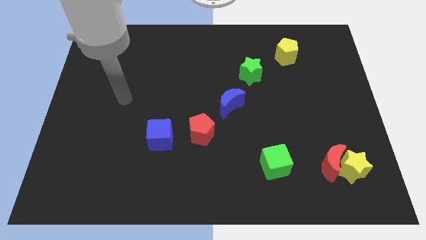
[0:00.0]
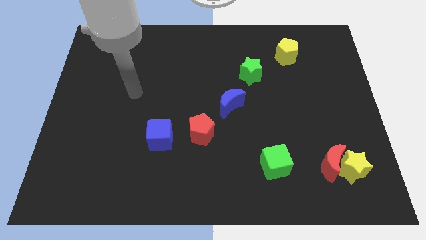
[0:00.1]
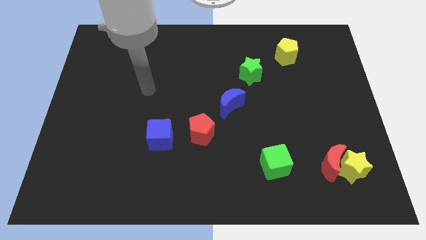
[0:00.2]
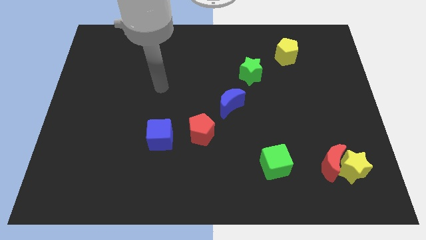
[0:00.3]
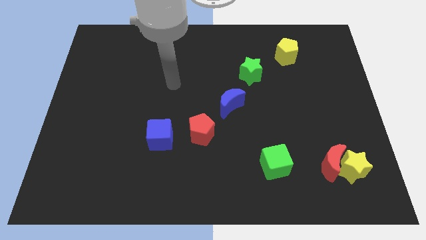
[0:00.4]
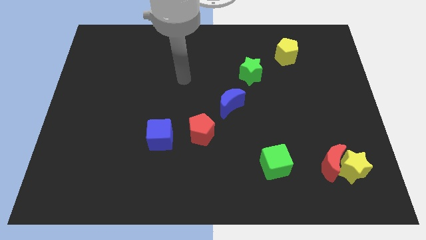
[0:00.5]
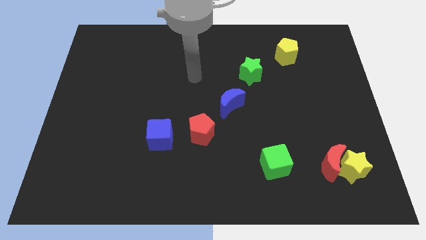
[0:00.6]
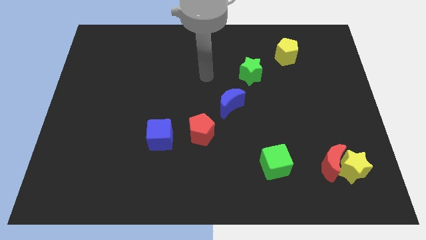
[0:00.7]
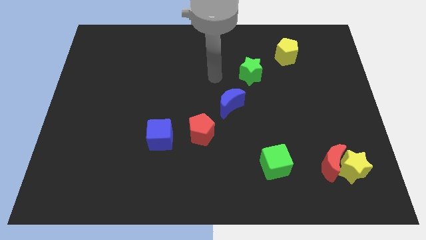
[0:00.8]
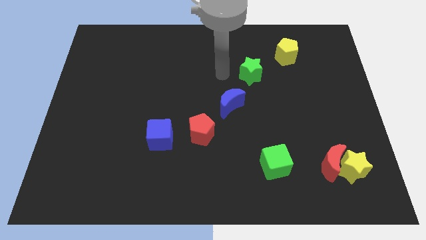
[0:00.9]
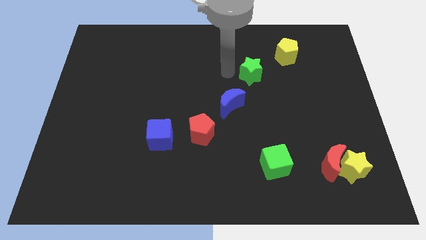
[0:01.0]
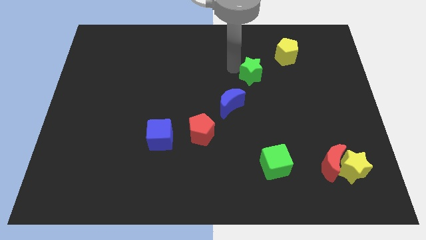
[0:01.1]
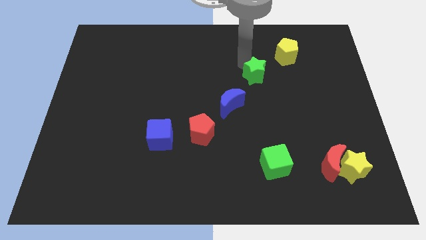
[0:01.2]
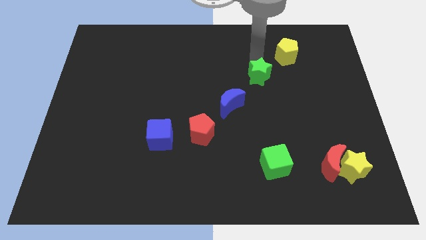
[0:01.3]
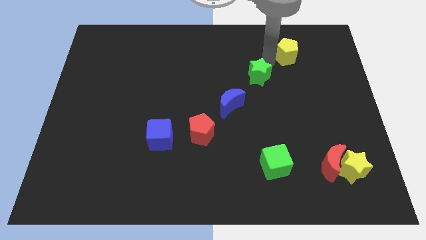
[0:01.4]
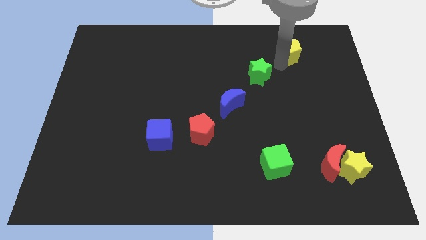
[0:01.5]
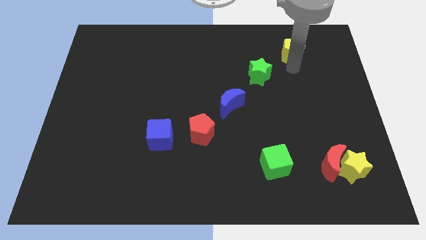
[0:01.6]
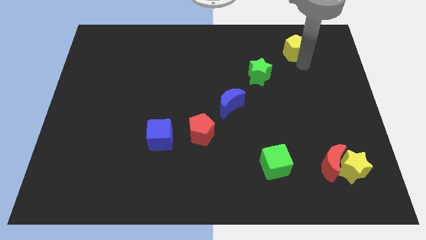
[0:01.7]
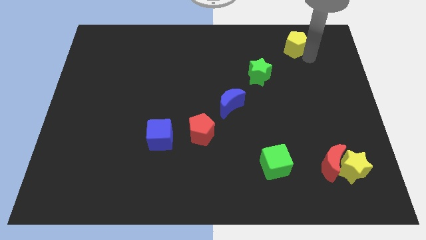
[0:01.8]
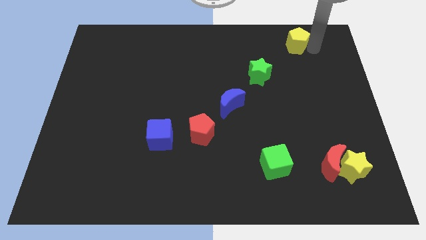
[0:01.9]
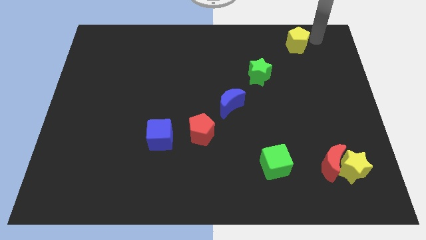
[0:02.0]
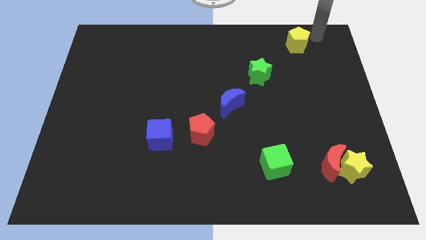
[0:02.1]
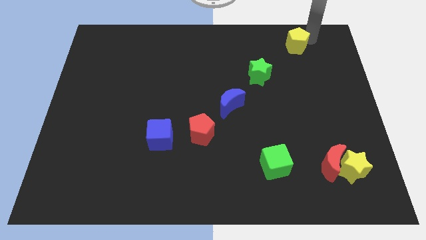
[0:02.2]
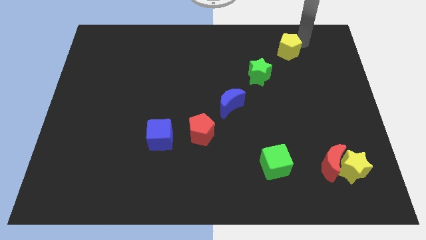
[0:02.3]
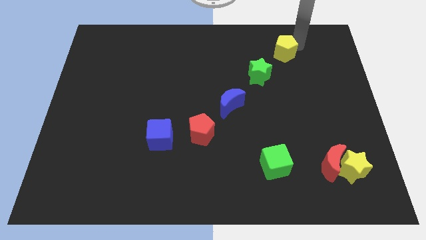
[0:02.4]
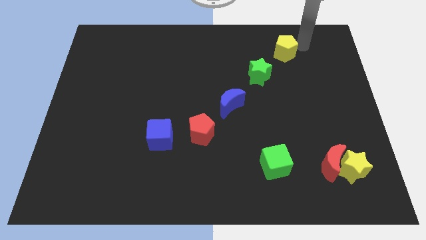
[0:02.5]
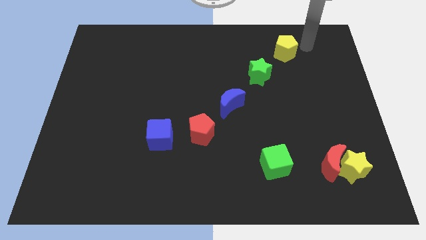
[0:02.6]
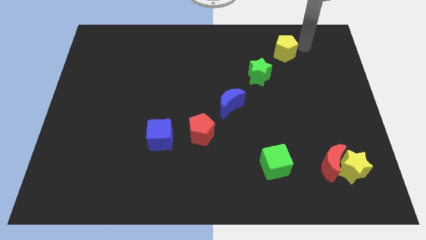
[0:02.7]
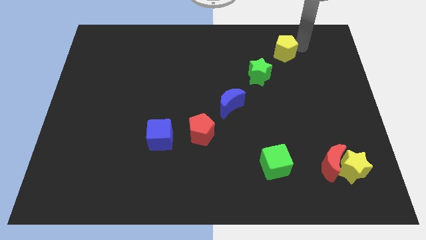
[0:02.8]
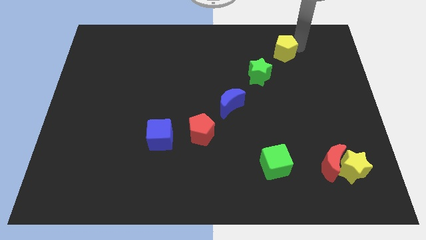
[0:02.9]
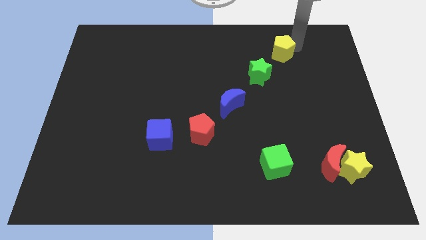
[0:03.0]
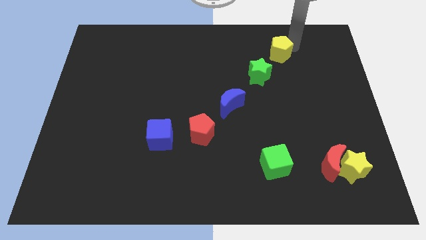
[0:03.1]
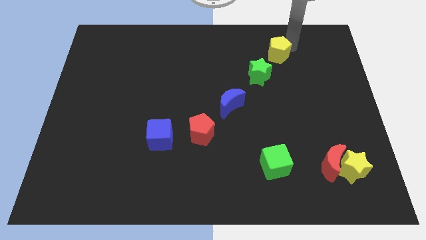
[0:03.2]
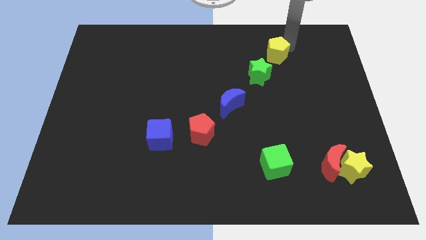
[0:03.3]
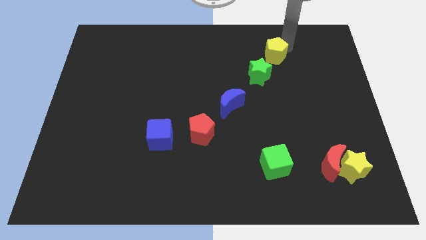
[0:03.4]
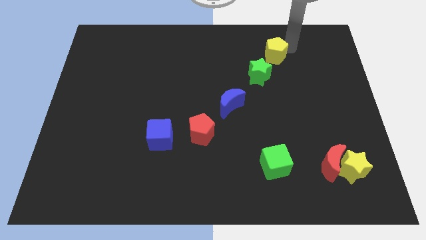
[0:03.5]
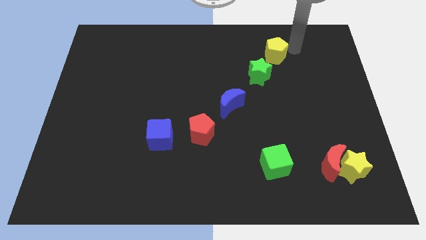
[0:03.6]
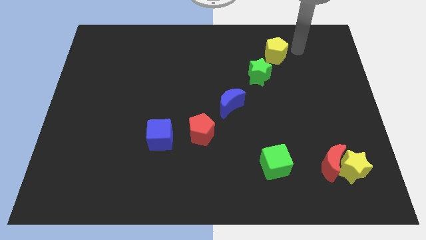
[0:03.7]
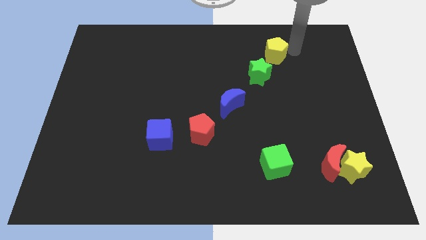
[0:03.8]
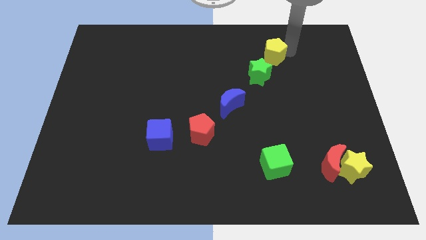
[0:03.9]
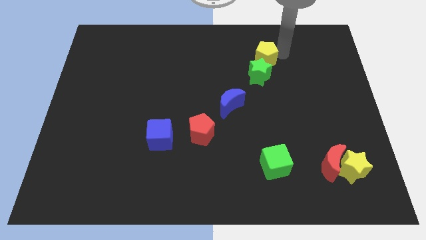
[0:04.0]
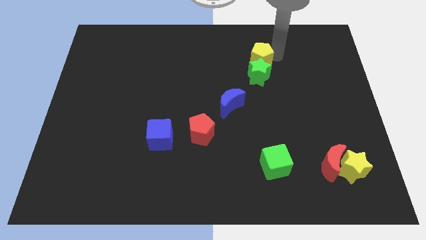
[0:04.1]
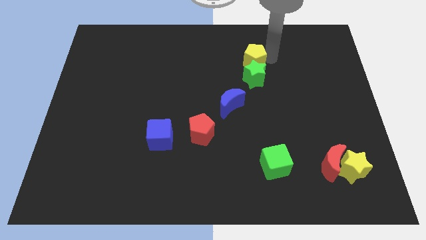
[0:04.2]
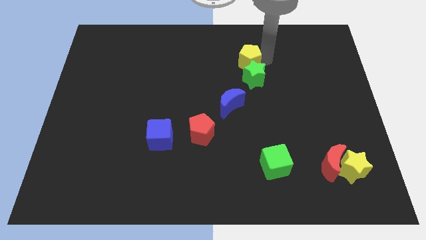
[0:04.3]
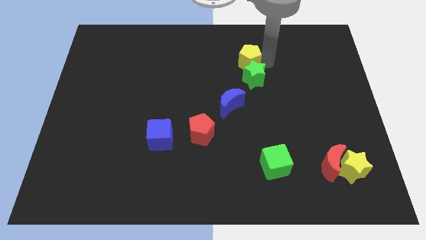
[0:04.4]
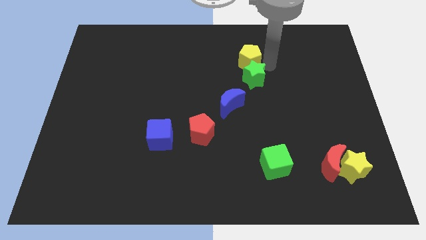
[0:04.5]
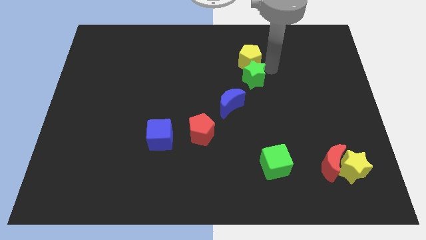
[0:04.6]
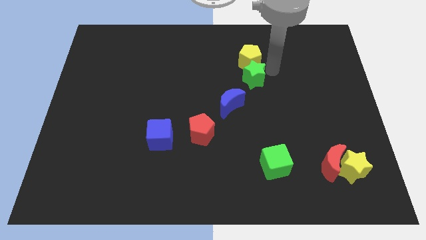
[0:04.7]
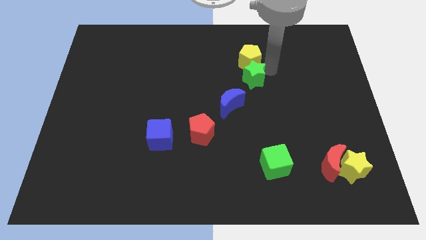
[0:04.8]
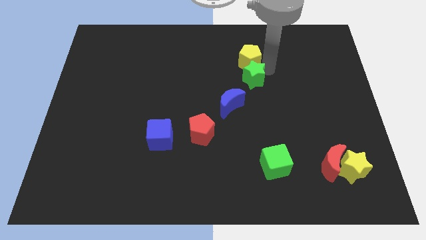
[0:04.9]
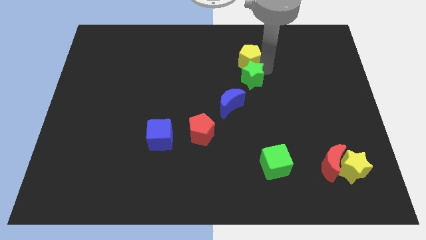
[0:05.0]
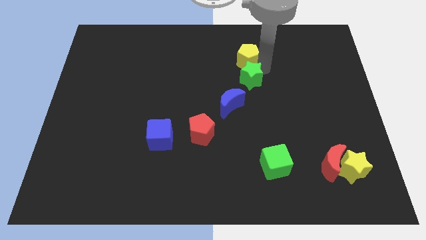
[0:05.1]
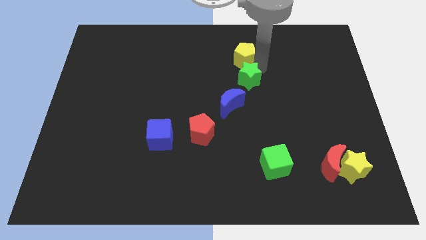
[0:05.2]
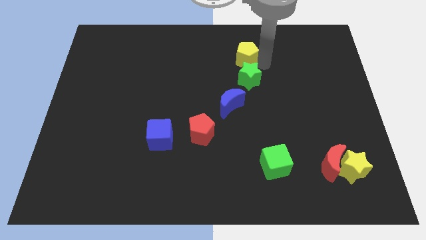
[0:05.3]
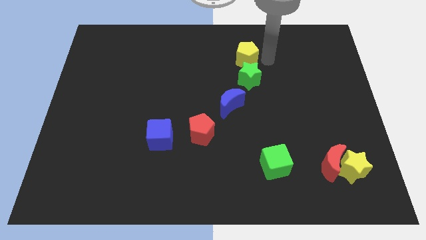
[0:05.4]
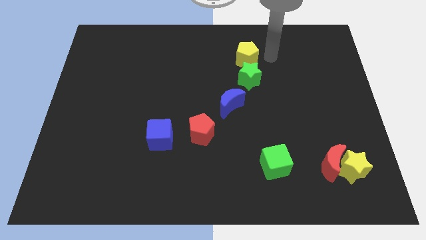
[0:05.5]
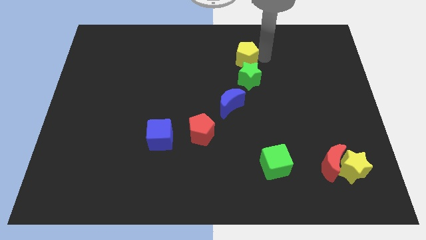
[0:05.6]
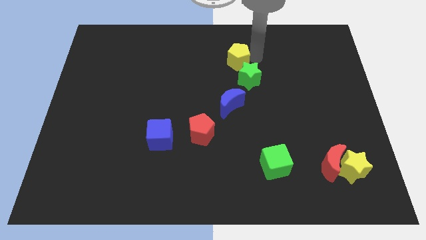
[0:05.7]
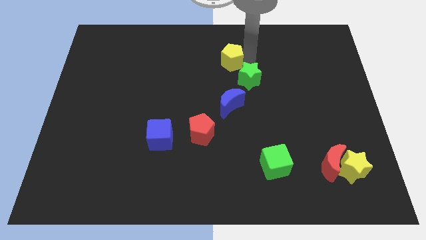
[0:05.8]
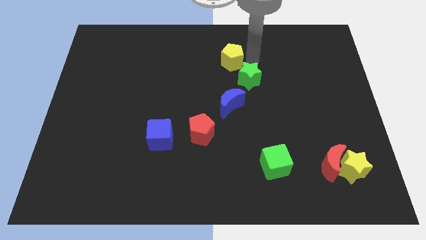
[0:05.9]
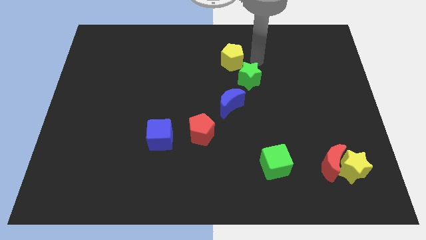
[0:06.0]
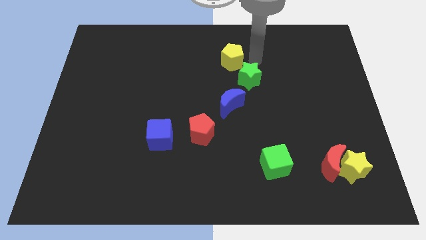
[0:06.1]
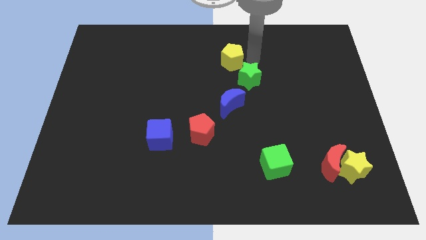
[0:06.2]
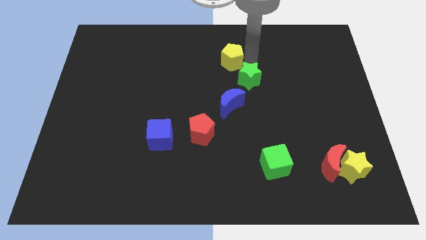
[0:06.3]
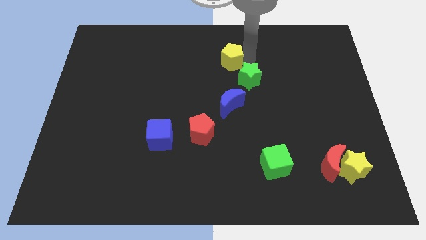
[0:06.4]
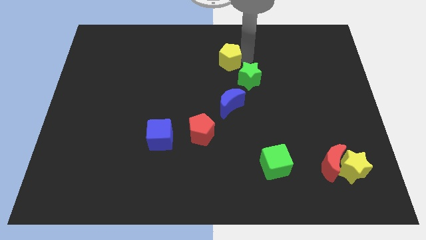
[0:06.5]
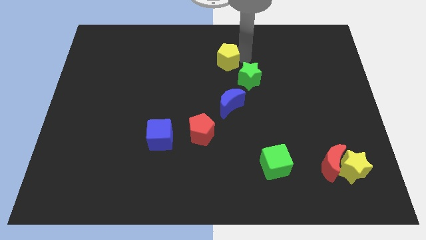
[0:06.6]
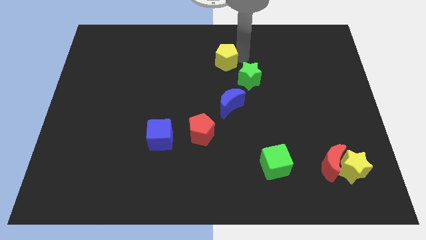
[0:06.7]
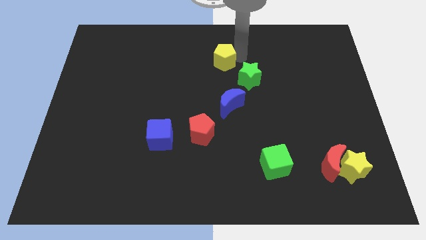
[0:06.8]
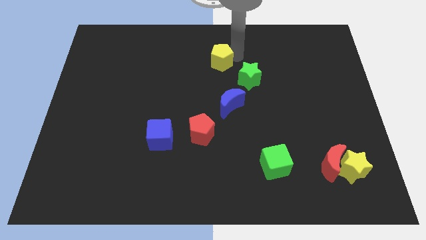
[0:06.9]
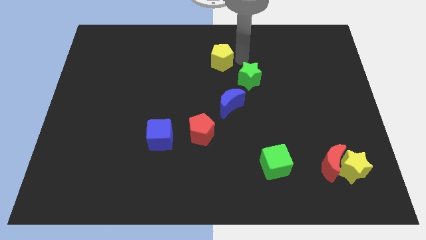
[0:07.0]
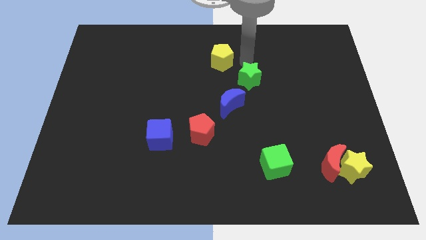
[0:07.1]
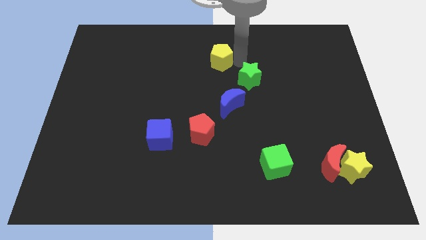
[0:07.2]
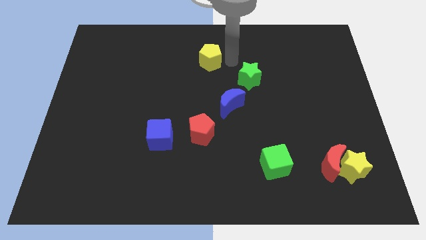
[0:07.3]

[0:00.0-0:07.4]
slide the yellow pentagon to the left

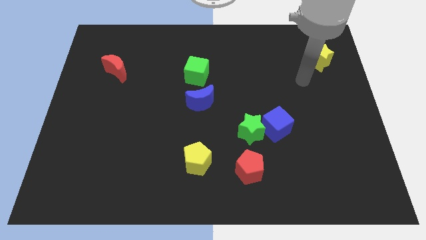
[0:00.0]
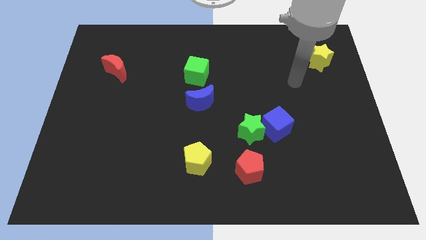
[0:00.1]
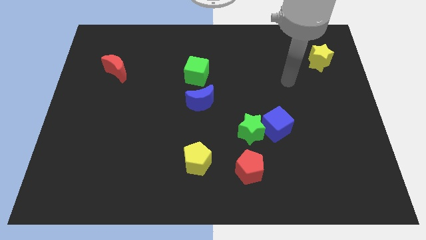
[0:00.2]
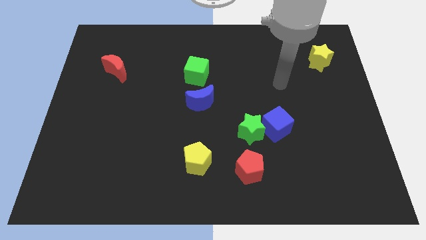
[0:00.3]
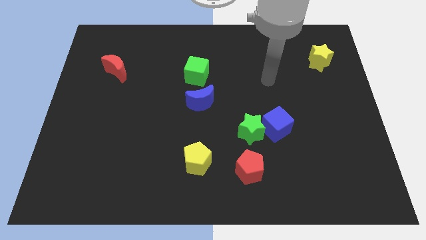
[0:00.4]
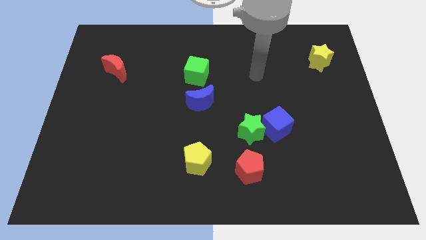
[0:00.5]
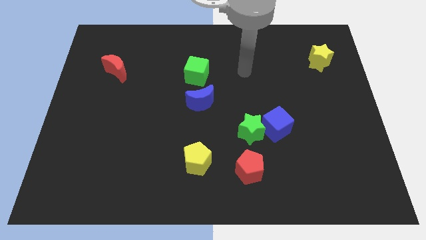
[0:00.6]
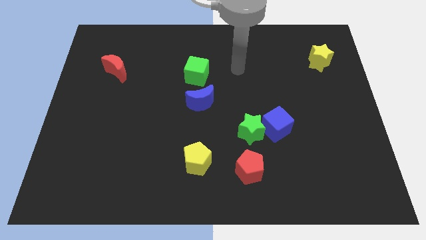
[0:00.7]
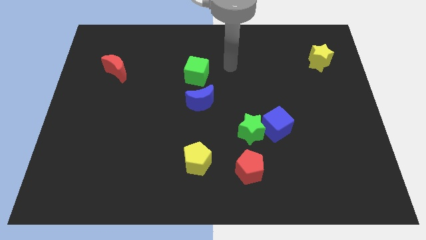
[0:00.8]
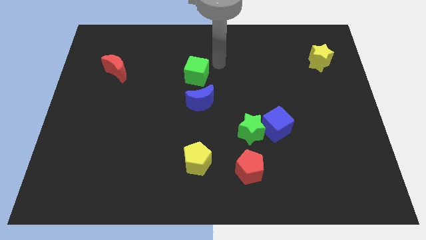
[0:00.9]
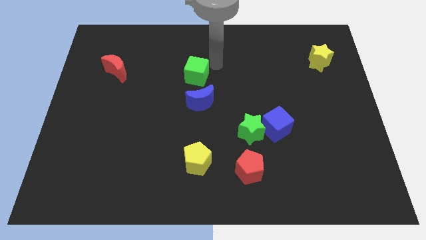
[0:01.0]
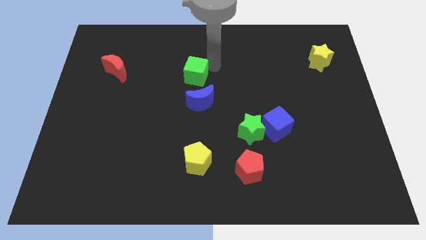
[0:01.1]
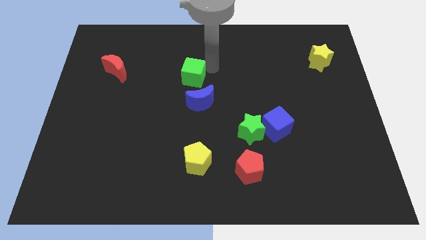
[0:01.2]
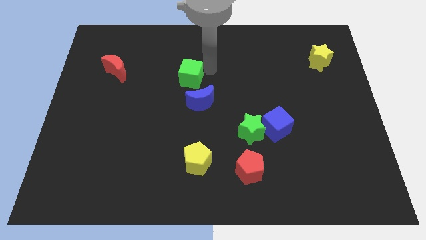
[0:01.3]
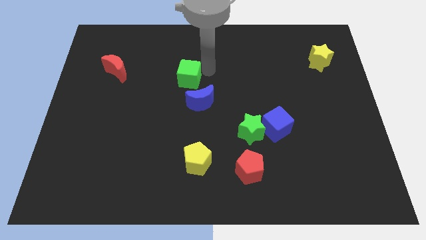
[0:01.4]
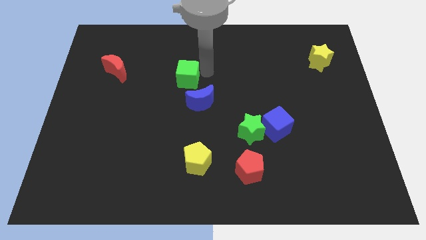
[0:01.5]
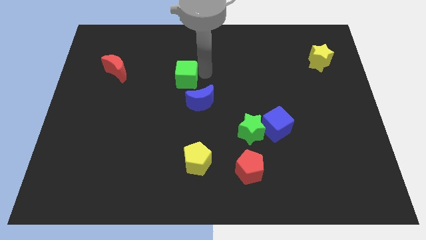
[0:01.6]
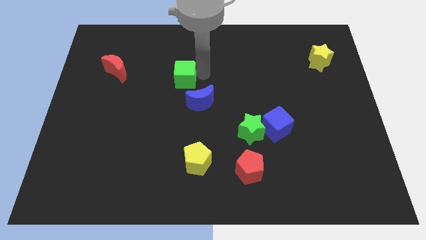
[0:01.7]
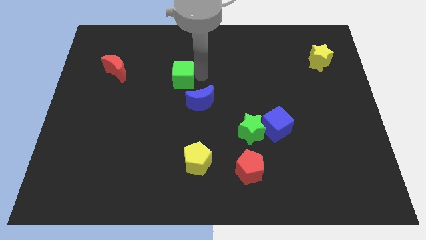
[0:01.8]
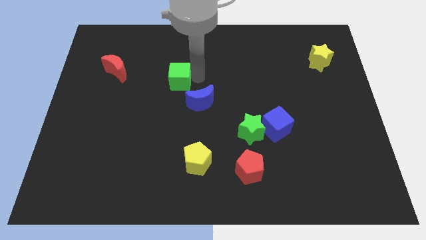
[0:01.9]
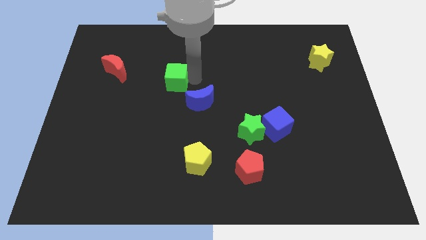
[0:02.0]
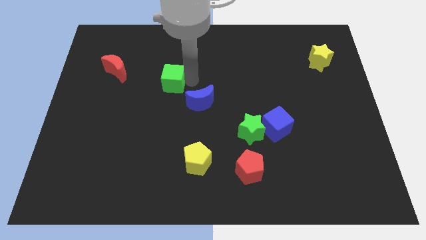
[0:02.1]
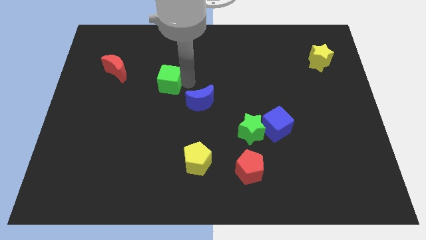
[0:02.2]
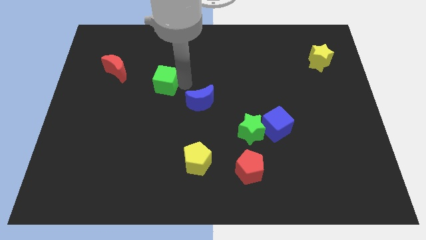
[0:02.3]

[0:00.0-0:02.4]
slightly push the green cube downwards and then to the left
